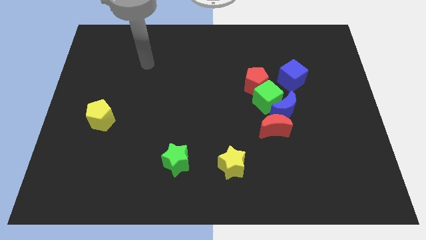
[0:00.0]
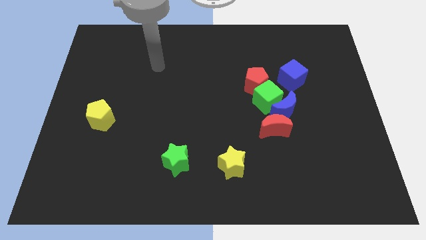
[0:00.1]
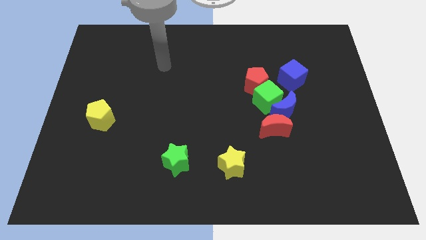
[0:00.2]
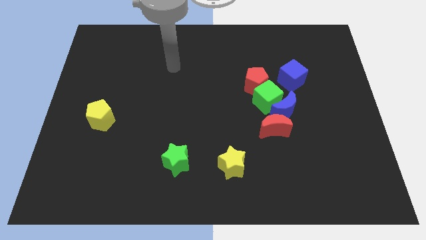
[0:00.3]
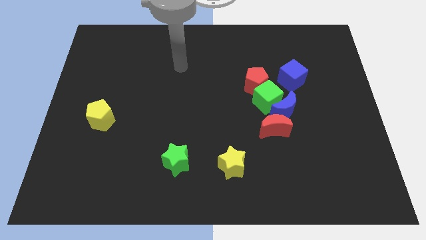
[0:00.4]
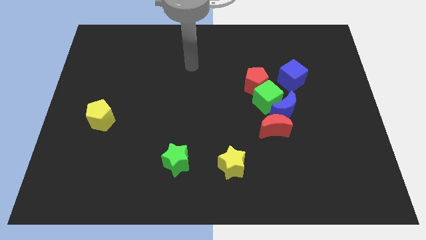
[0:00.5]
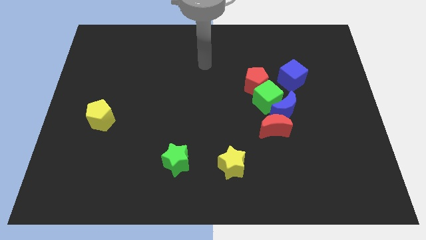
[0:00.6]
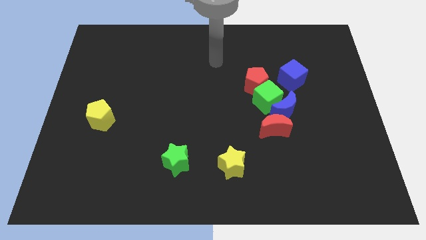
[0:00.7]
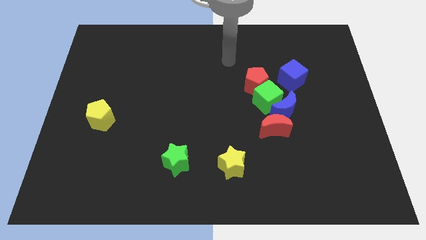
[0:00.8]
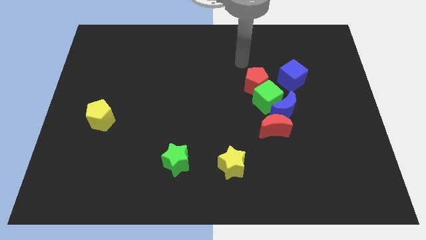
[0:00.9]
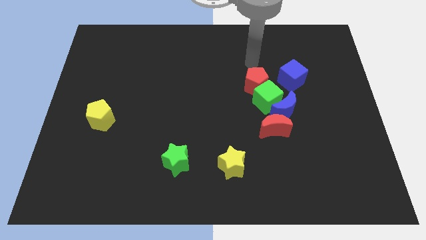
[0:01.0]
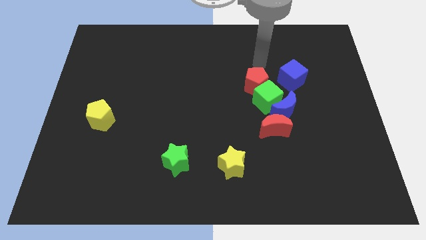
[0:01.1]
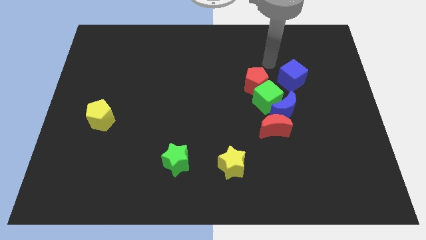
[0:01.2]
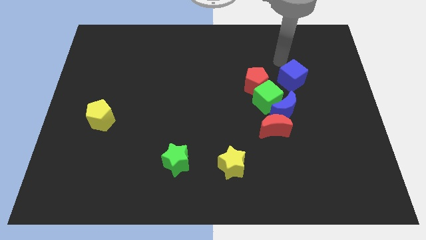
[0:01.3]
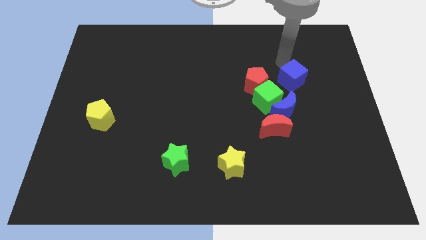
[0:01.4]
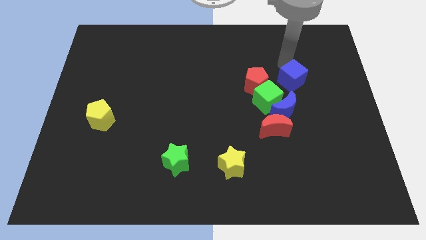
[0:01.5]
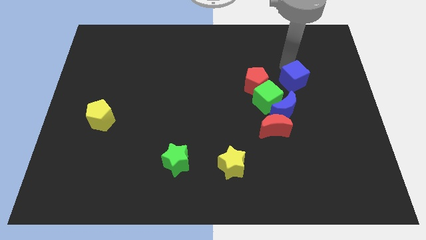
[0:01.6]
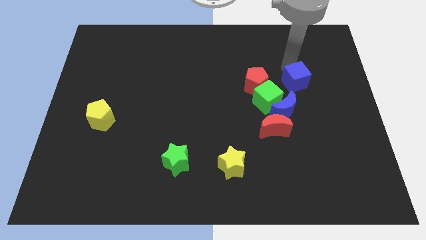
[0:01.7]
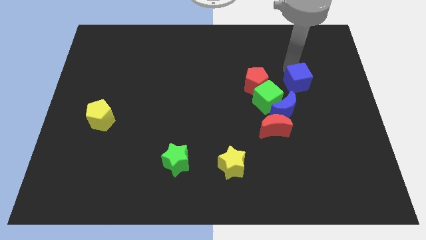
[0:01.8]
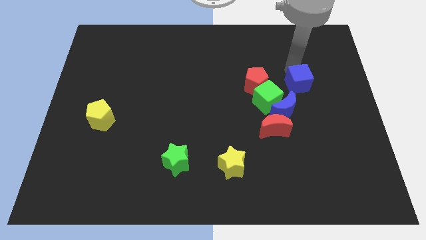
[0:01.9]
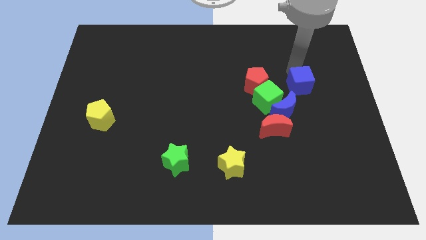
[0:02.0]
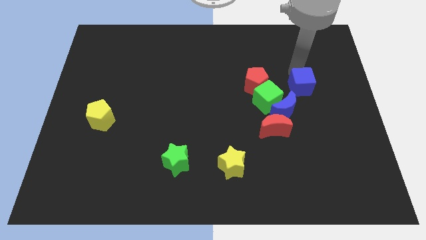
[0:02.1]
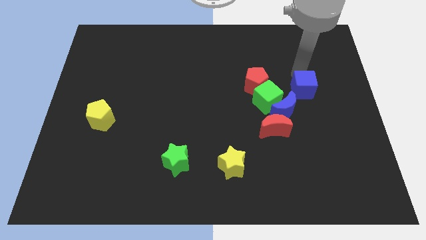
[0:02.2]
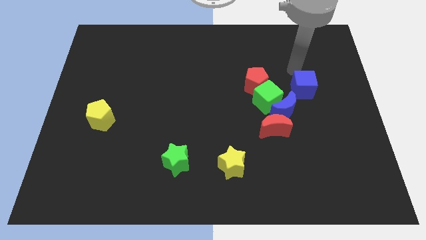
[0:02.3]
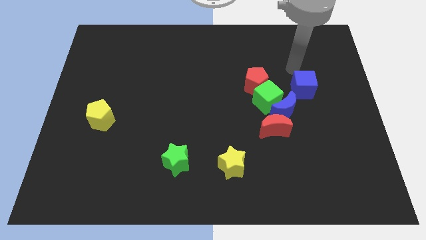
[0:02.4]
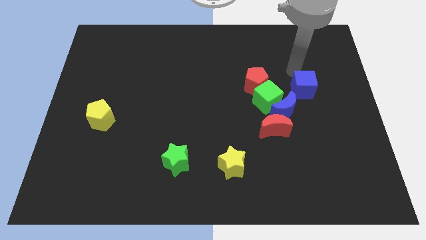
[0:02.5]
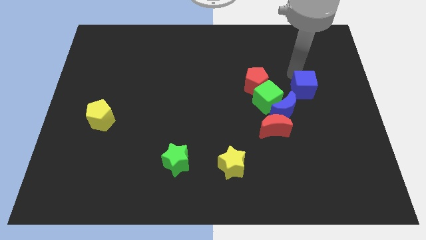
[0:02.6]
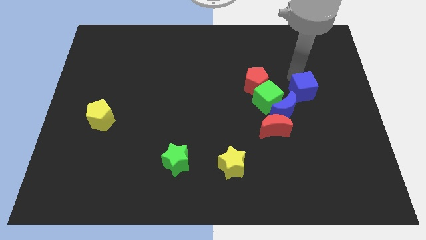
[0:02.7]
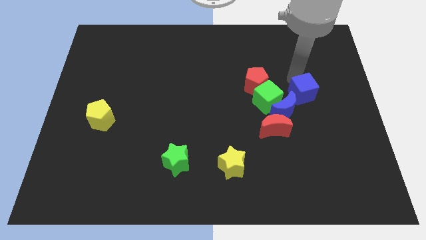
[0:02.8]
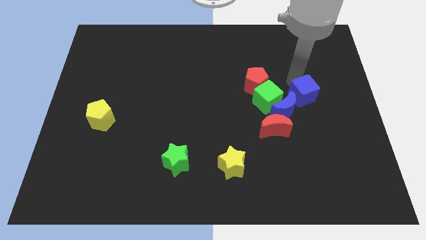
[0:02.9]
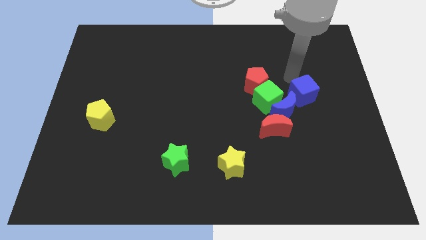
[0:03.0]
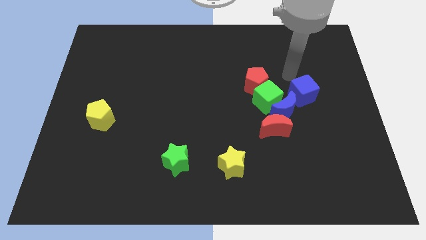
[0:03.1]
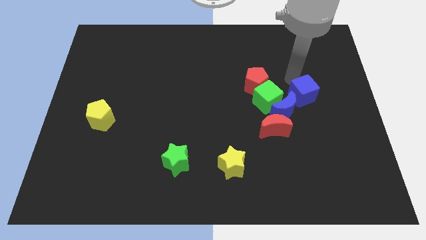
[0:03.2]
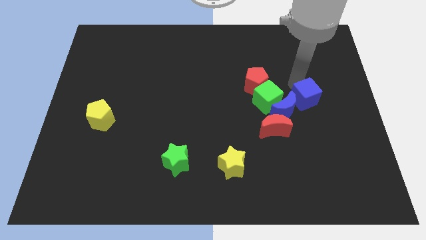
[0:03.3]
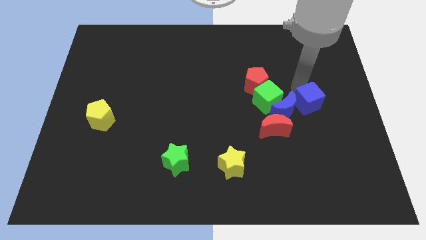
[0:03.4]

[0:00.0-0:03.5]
slightly slide the blue cube down

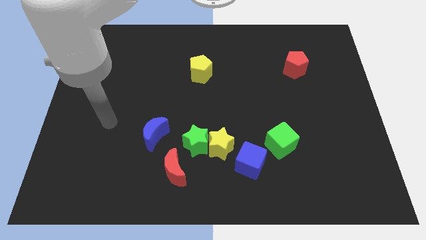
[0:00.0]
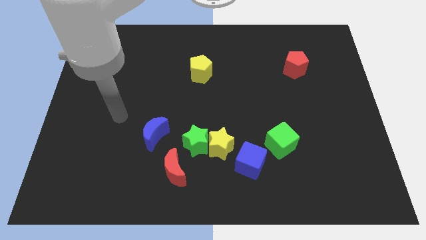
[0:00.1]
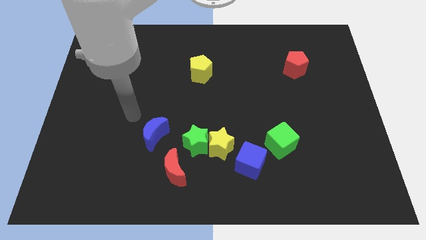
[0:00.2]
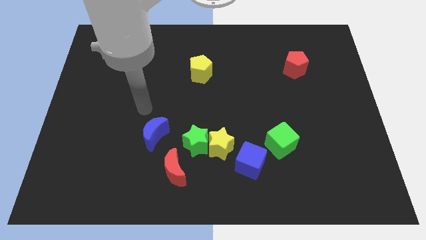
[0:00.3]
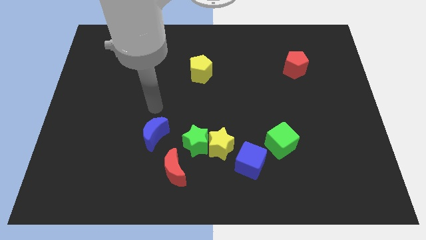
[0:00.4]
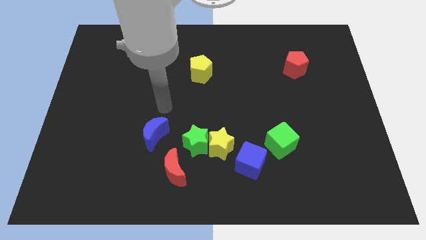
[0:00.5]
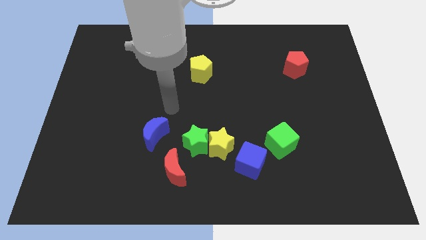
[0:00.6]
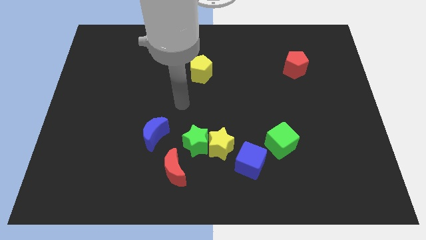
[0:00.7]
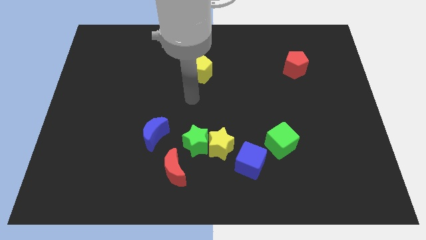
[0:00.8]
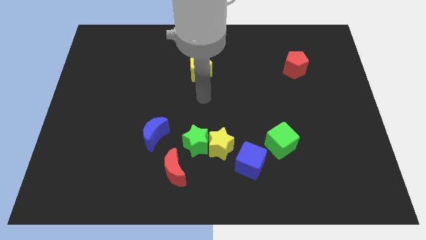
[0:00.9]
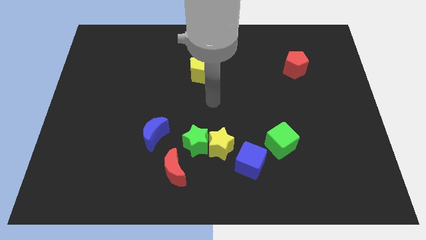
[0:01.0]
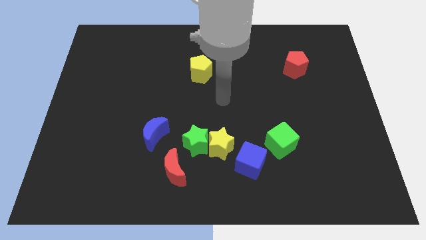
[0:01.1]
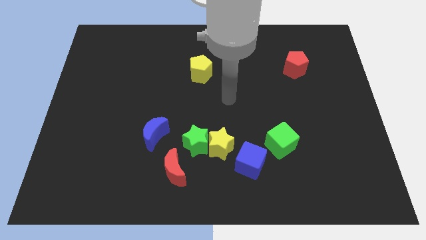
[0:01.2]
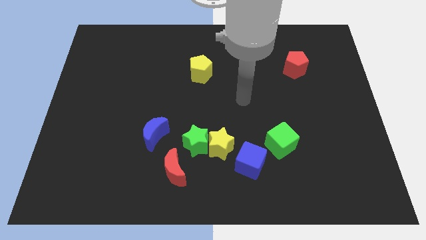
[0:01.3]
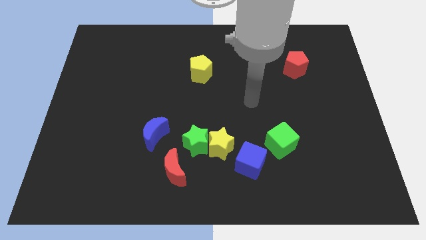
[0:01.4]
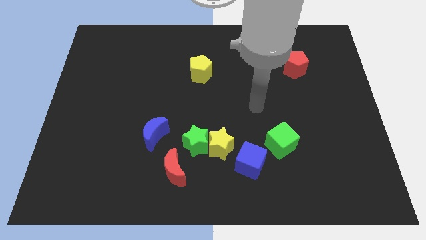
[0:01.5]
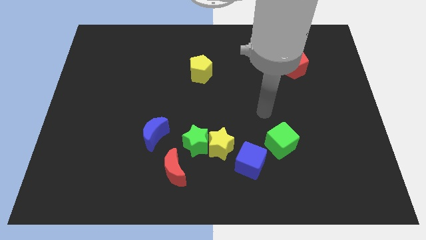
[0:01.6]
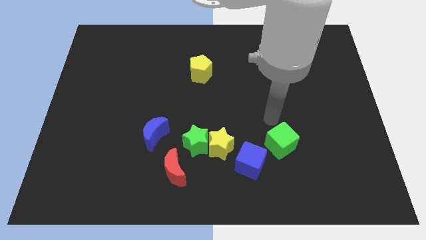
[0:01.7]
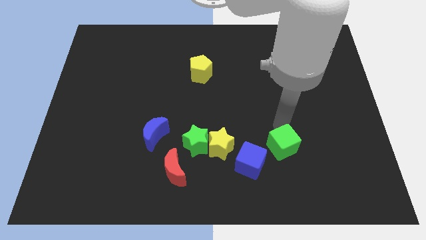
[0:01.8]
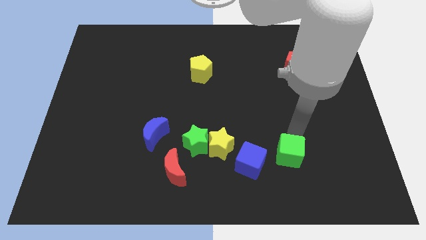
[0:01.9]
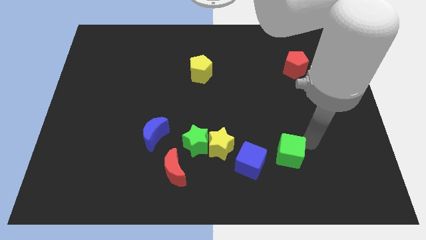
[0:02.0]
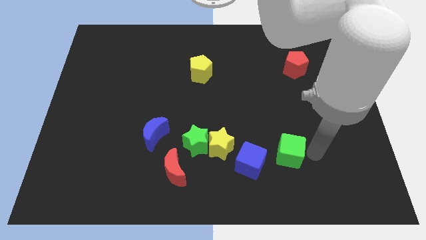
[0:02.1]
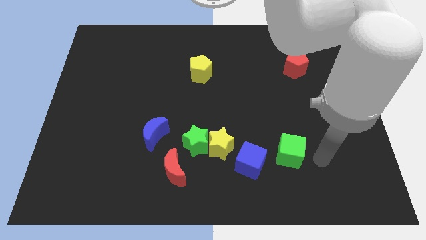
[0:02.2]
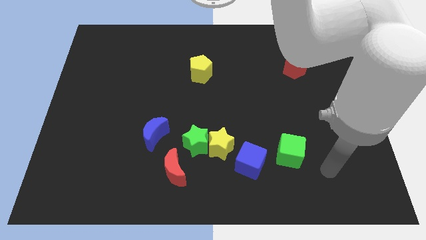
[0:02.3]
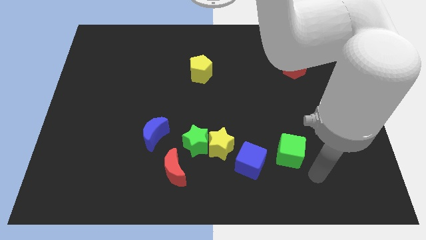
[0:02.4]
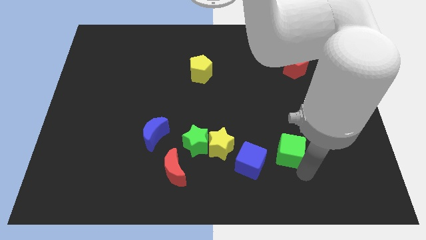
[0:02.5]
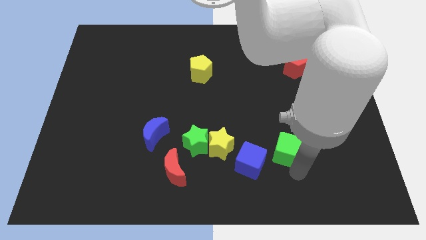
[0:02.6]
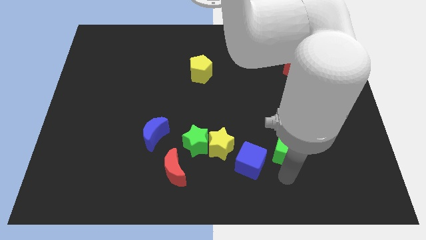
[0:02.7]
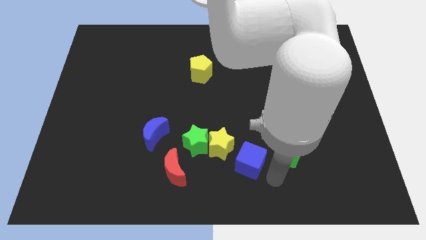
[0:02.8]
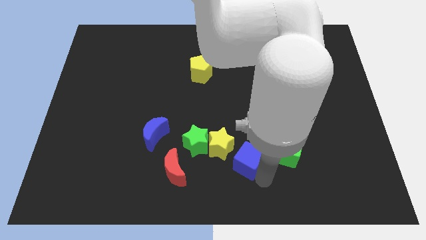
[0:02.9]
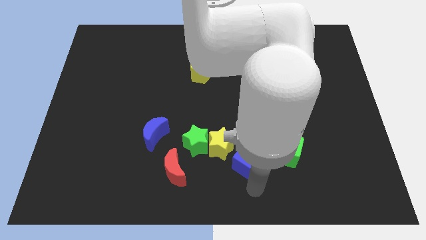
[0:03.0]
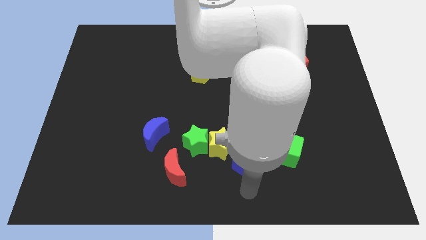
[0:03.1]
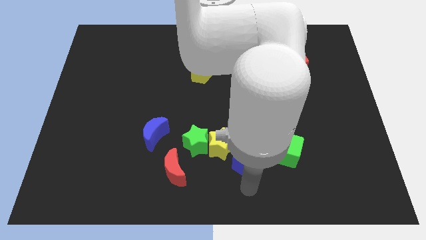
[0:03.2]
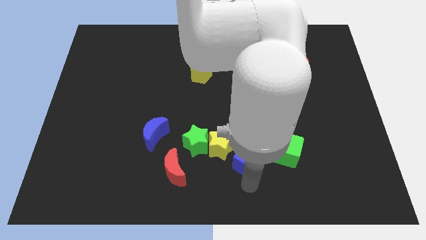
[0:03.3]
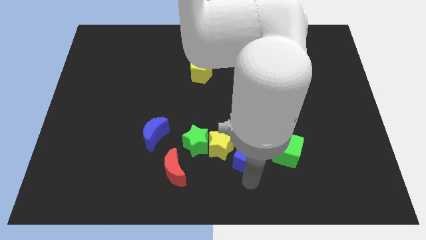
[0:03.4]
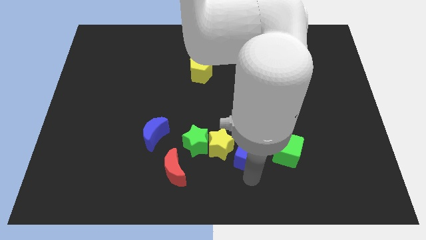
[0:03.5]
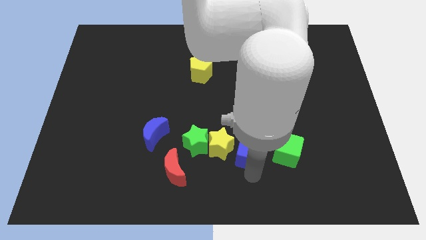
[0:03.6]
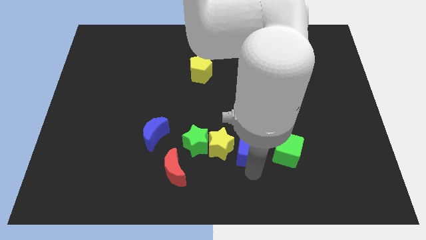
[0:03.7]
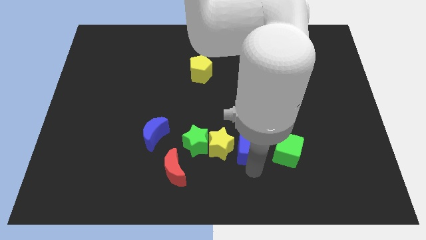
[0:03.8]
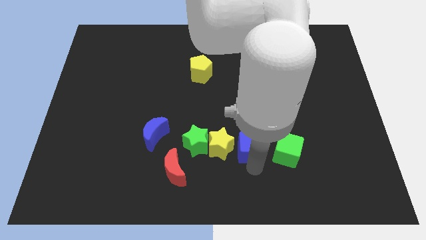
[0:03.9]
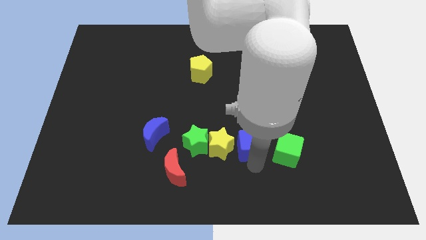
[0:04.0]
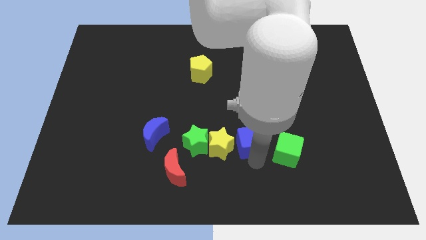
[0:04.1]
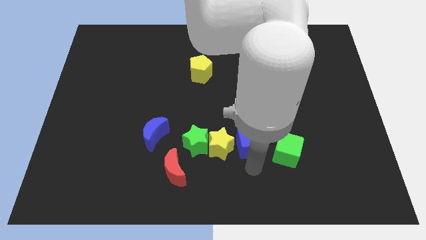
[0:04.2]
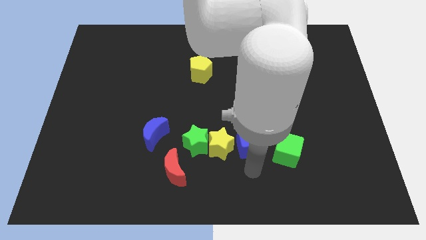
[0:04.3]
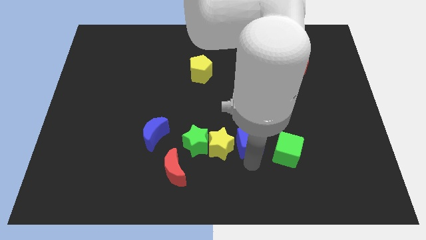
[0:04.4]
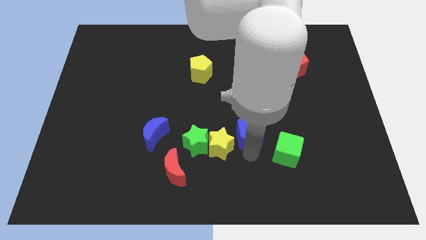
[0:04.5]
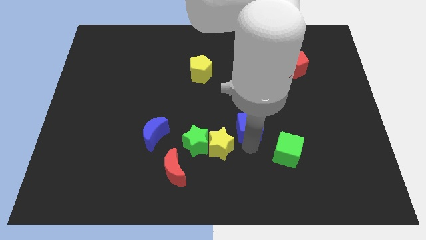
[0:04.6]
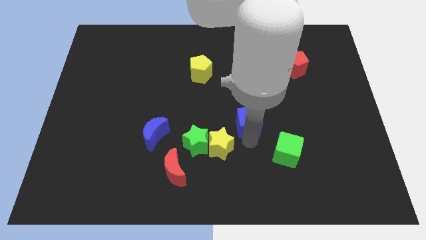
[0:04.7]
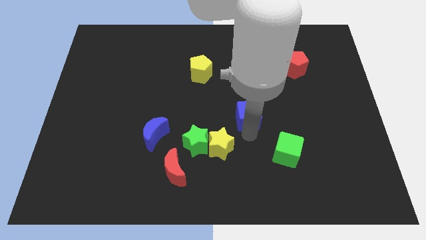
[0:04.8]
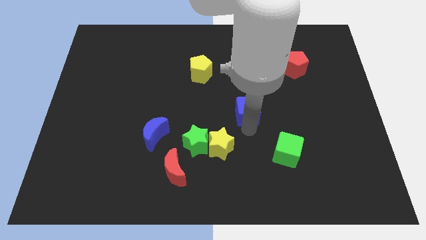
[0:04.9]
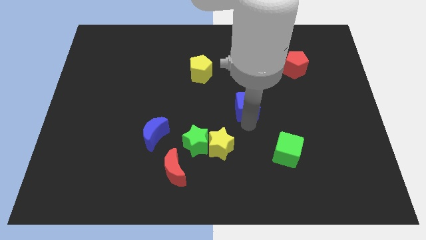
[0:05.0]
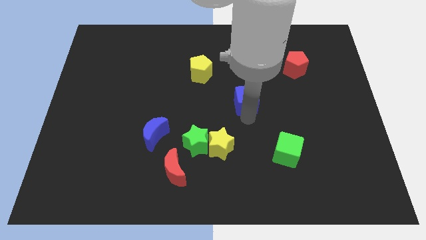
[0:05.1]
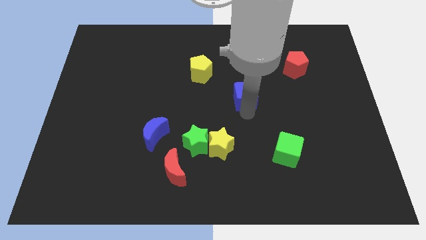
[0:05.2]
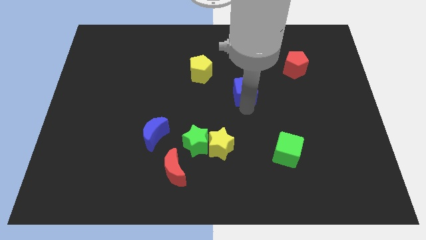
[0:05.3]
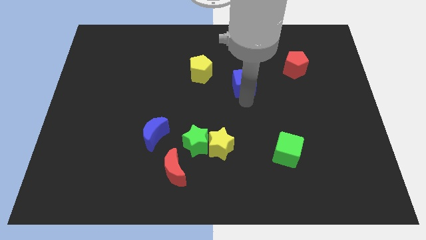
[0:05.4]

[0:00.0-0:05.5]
slide the blue cube upwards
